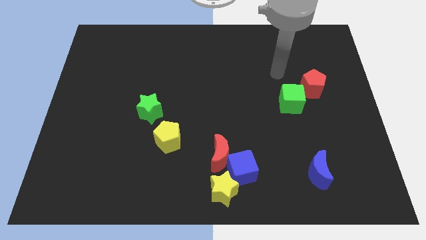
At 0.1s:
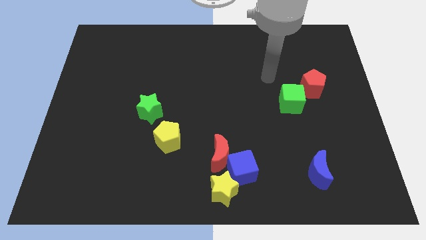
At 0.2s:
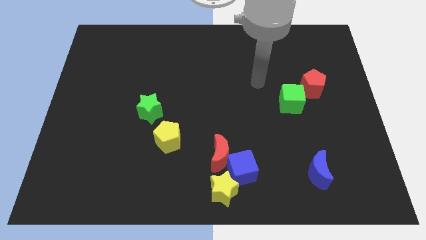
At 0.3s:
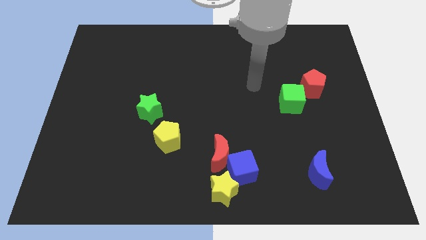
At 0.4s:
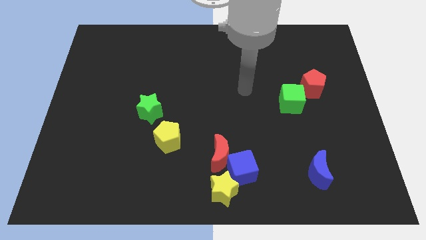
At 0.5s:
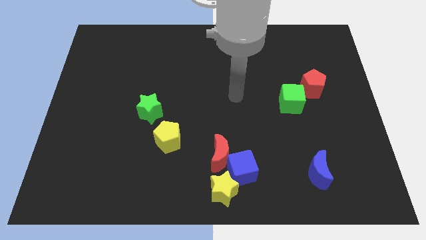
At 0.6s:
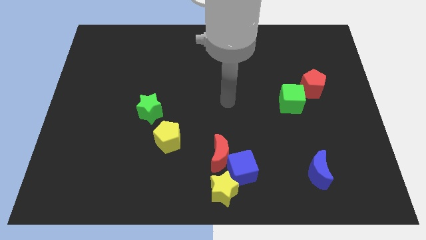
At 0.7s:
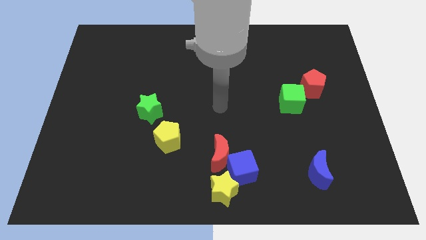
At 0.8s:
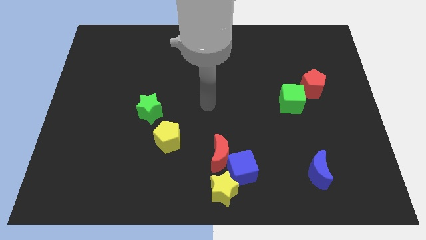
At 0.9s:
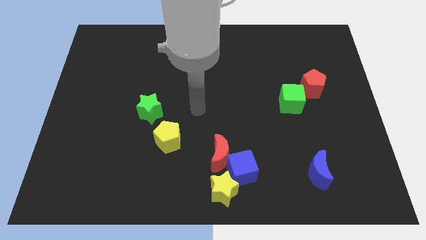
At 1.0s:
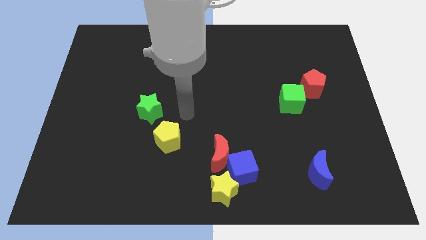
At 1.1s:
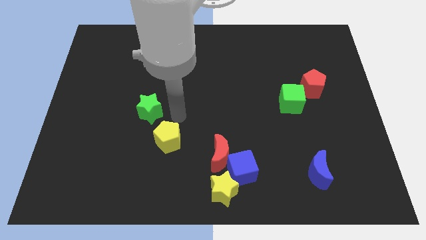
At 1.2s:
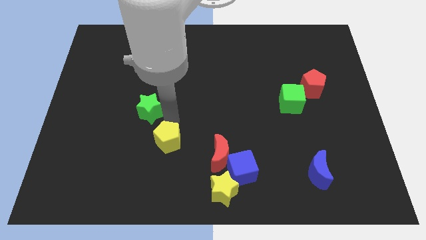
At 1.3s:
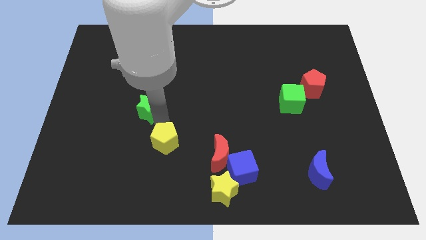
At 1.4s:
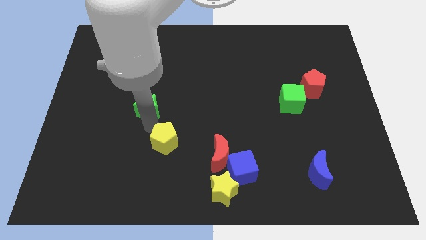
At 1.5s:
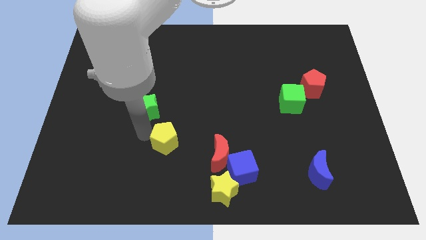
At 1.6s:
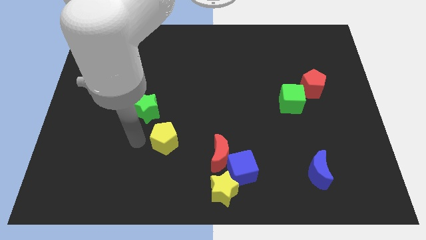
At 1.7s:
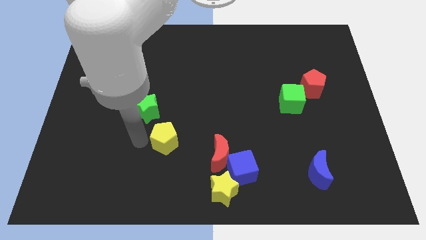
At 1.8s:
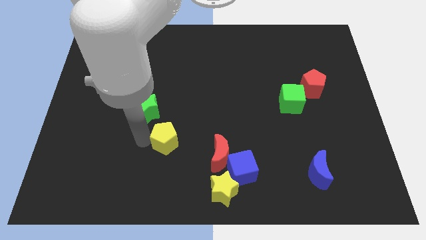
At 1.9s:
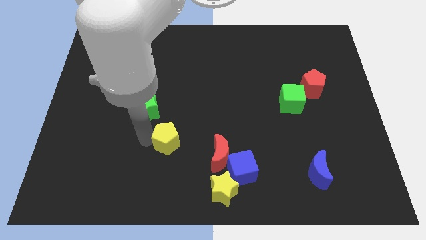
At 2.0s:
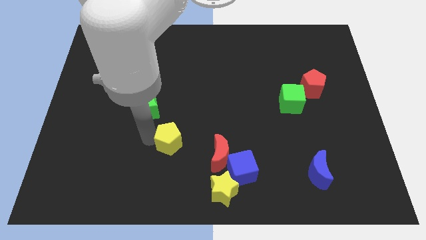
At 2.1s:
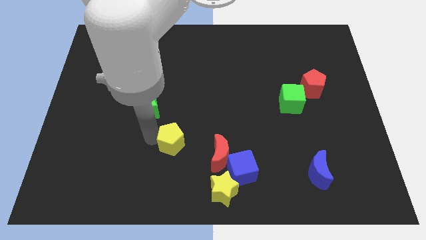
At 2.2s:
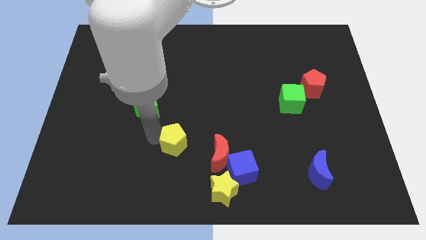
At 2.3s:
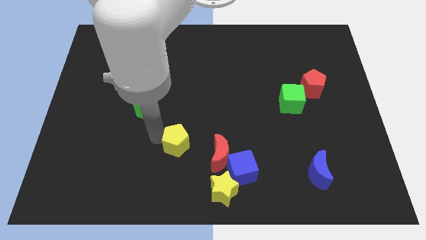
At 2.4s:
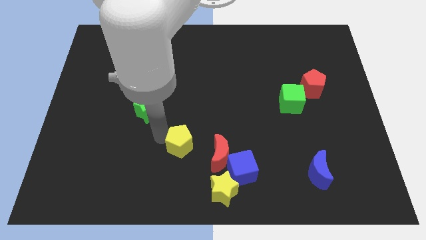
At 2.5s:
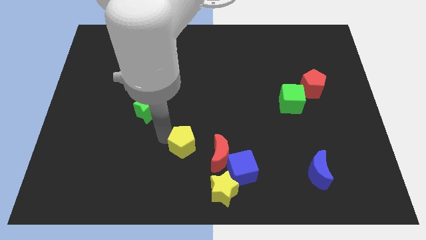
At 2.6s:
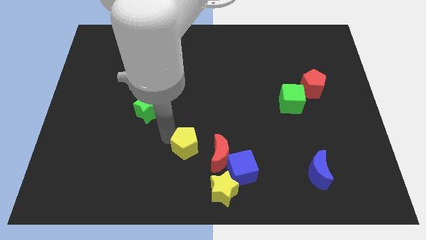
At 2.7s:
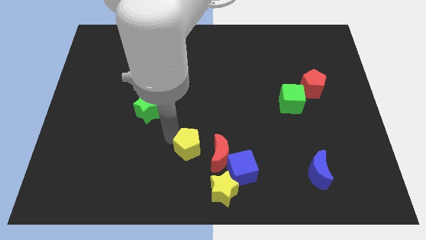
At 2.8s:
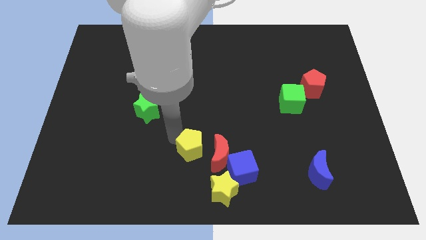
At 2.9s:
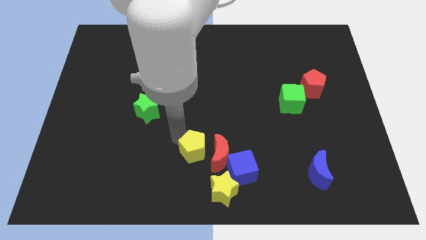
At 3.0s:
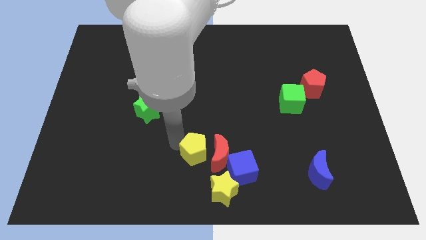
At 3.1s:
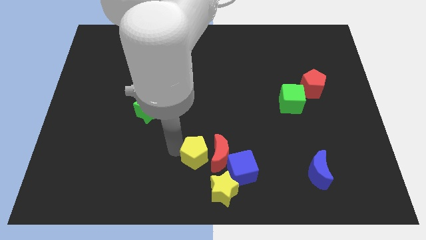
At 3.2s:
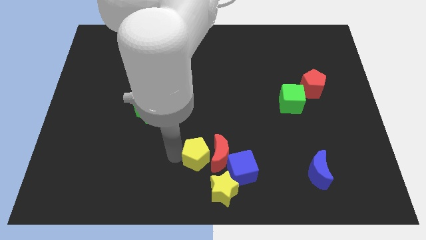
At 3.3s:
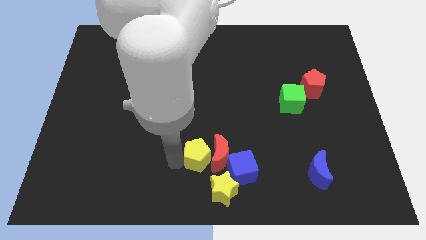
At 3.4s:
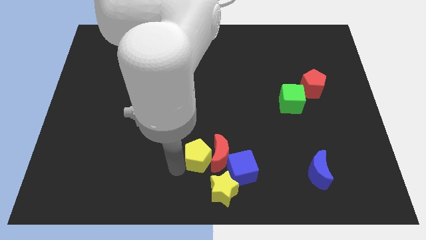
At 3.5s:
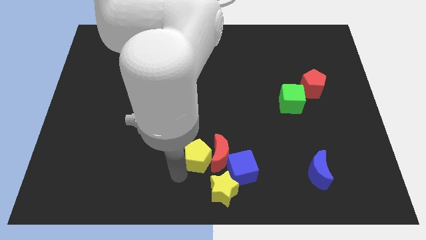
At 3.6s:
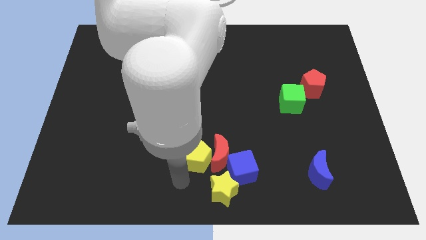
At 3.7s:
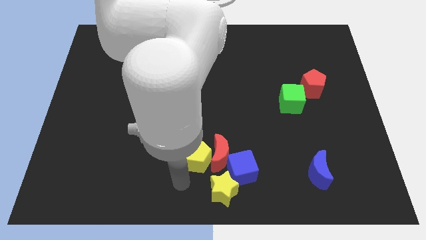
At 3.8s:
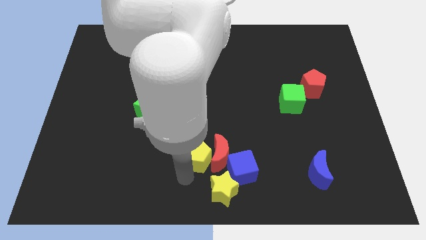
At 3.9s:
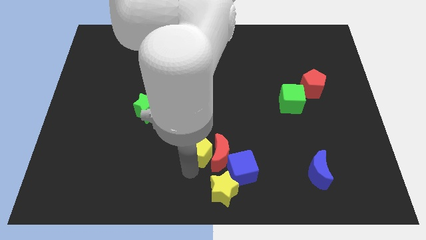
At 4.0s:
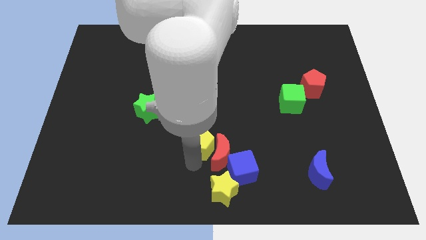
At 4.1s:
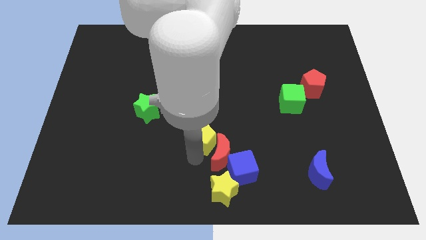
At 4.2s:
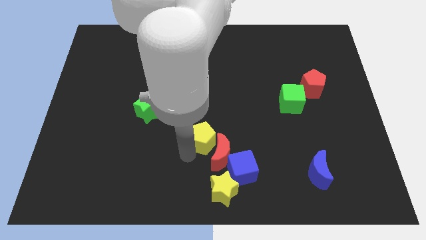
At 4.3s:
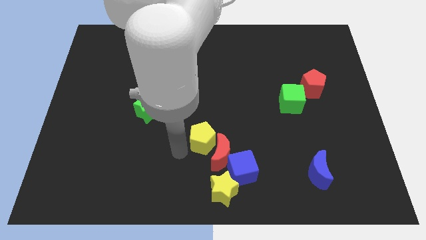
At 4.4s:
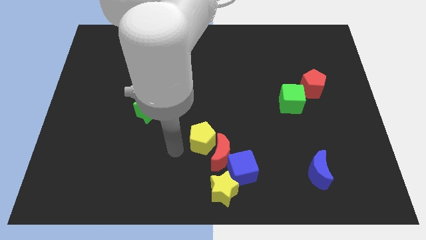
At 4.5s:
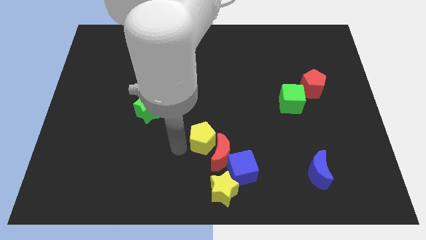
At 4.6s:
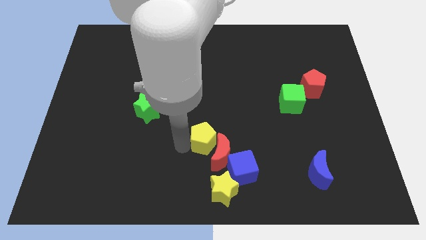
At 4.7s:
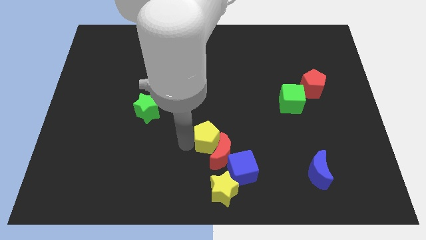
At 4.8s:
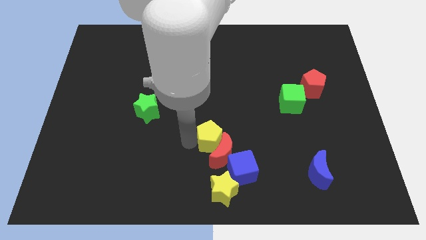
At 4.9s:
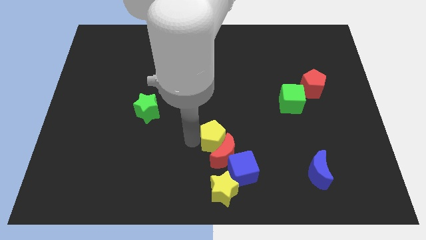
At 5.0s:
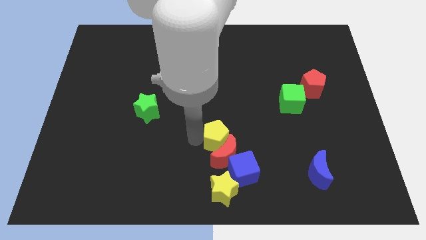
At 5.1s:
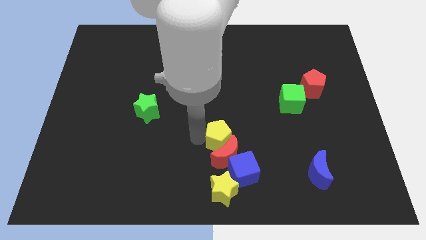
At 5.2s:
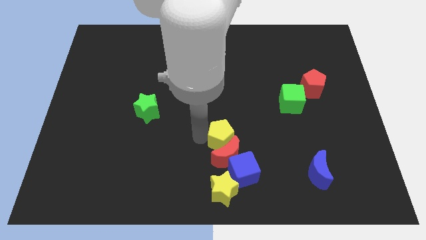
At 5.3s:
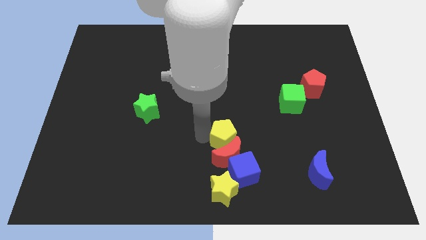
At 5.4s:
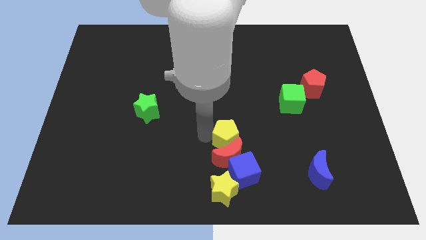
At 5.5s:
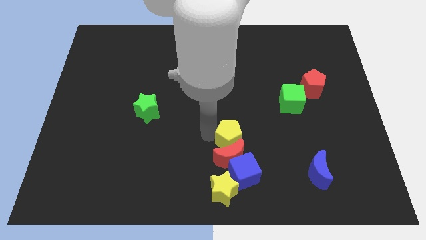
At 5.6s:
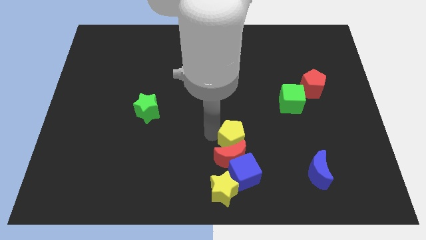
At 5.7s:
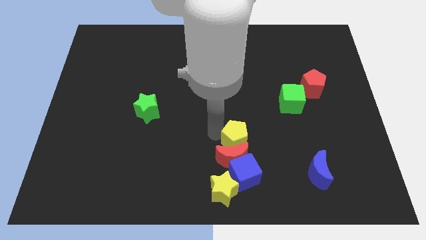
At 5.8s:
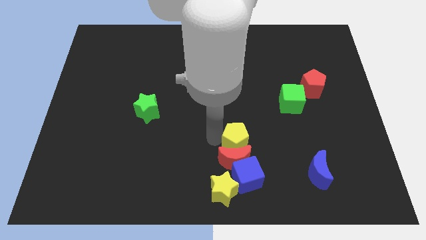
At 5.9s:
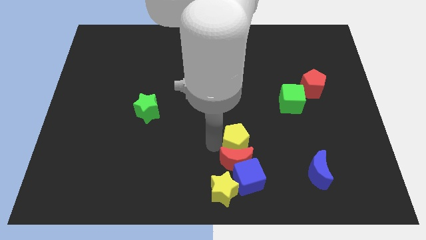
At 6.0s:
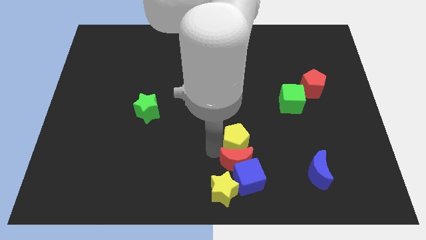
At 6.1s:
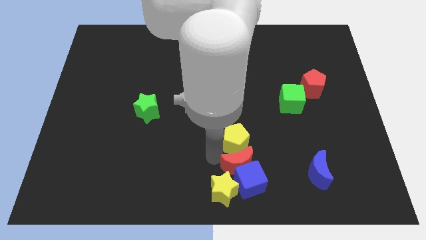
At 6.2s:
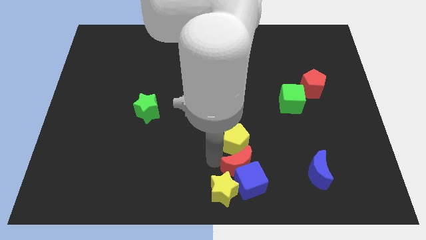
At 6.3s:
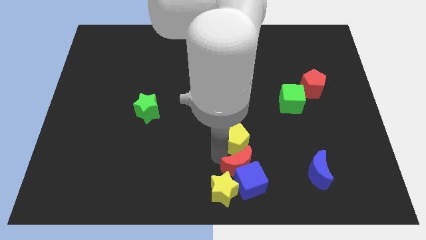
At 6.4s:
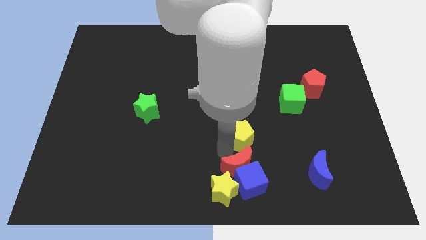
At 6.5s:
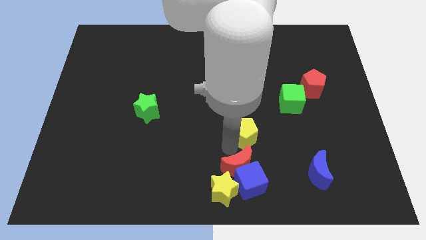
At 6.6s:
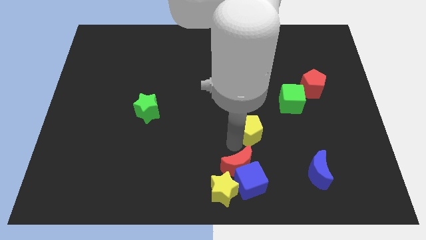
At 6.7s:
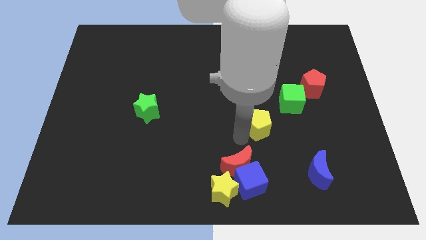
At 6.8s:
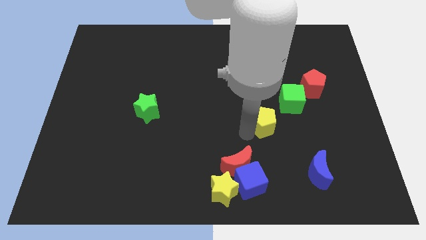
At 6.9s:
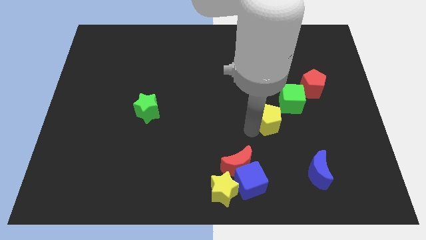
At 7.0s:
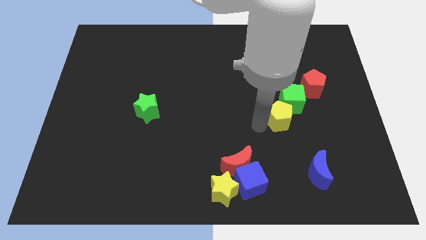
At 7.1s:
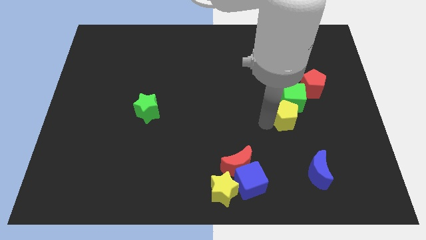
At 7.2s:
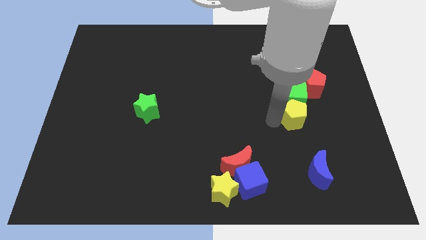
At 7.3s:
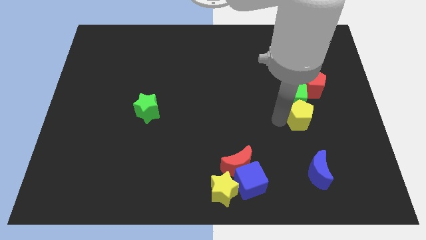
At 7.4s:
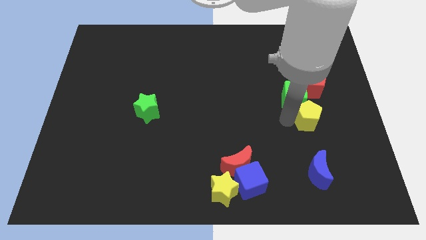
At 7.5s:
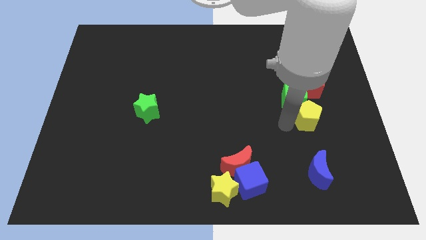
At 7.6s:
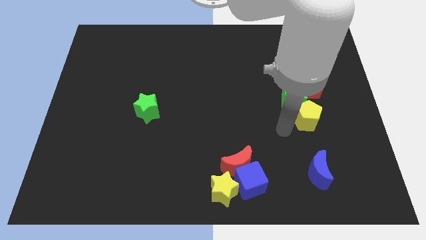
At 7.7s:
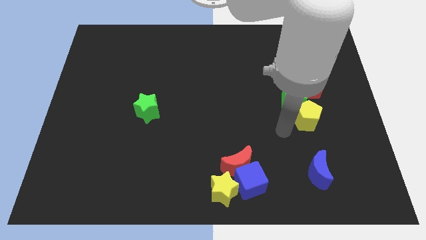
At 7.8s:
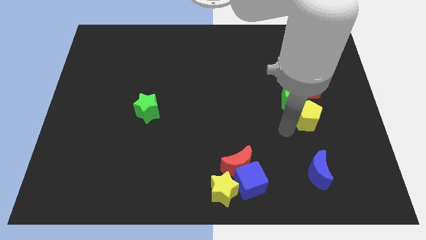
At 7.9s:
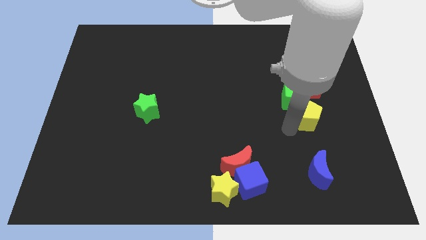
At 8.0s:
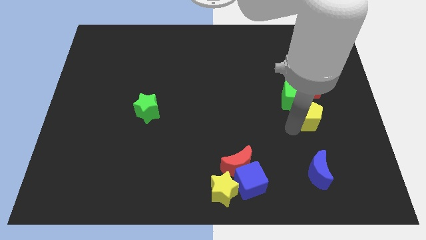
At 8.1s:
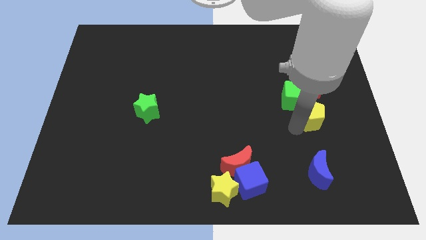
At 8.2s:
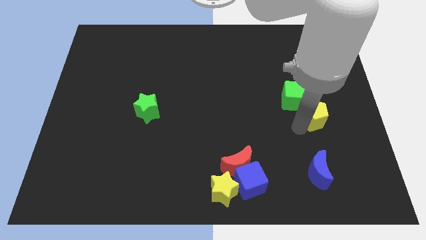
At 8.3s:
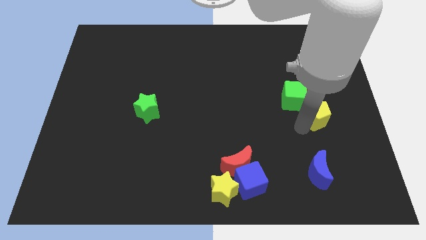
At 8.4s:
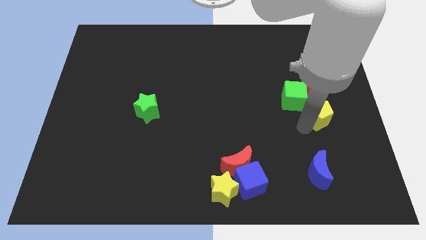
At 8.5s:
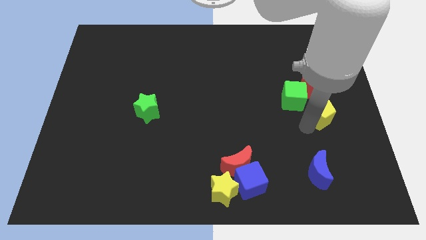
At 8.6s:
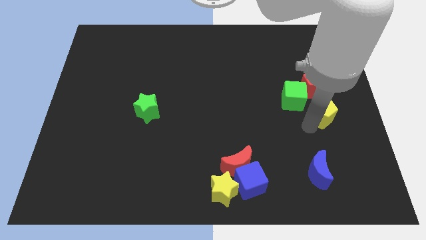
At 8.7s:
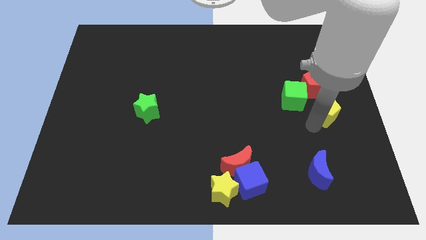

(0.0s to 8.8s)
slide the yellow pentagon to the right side
